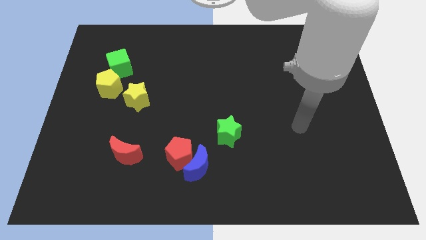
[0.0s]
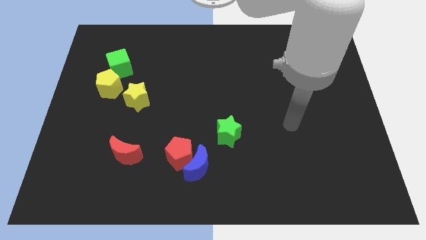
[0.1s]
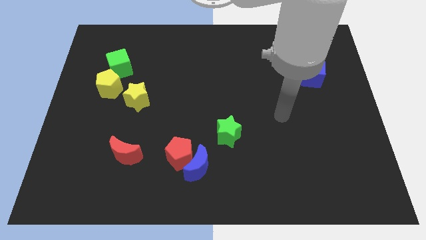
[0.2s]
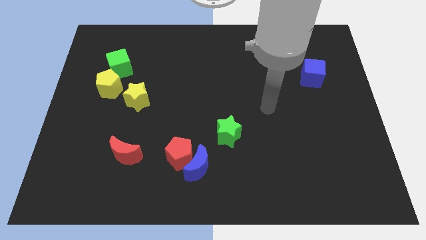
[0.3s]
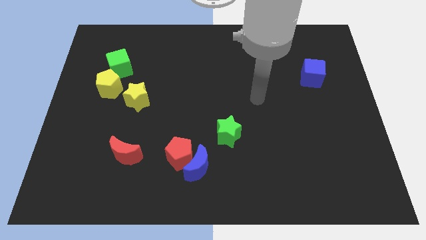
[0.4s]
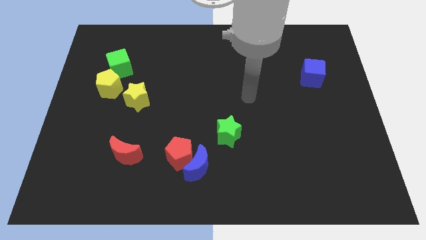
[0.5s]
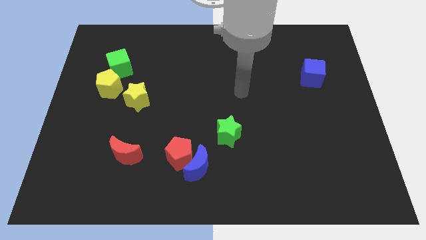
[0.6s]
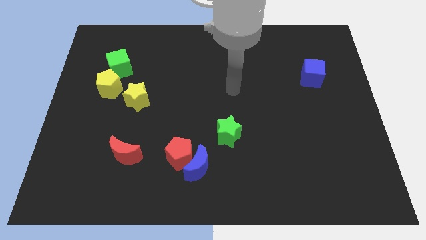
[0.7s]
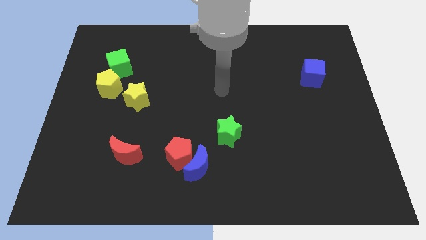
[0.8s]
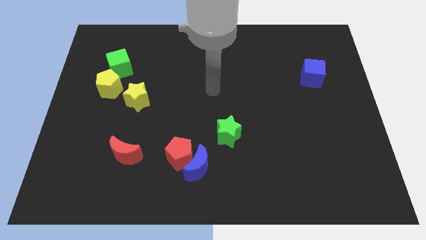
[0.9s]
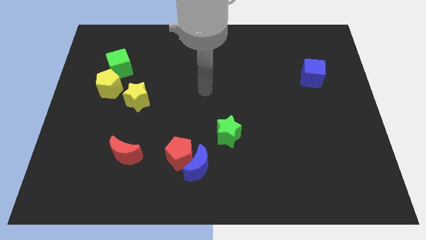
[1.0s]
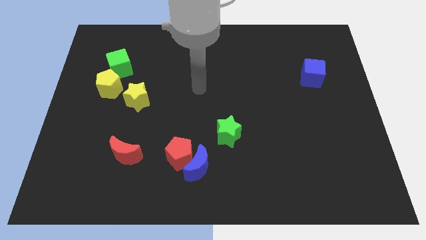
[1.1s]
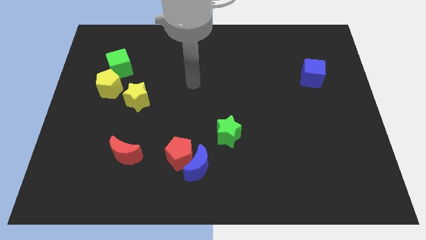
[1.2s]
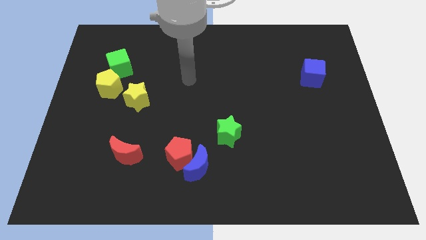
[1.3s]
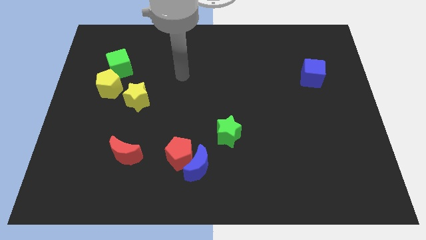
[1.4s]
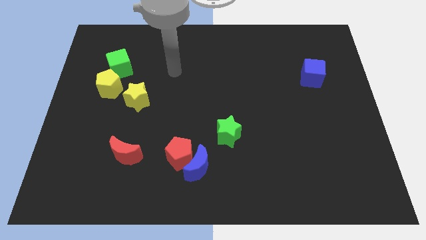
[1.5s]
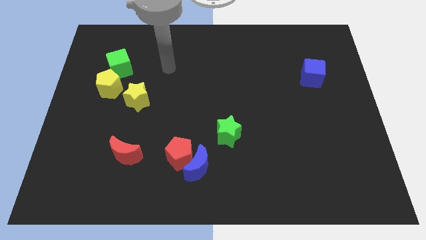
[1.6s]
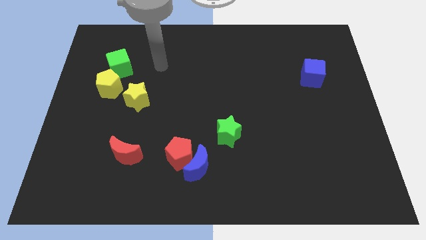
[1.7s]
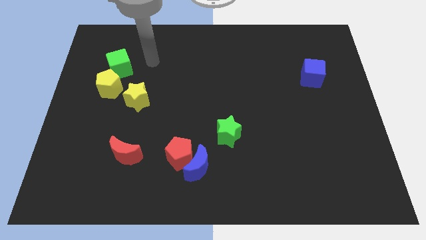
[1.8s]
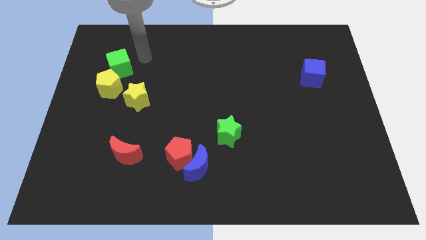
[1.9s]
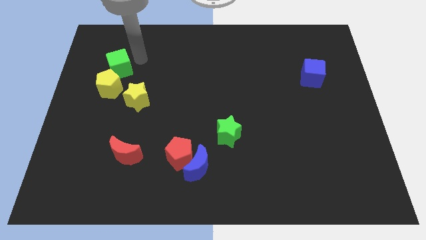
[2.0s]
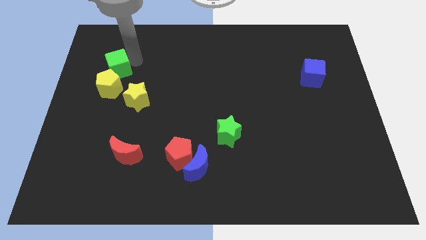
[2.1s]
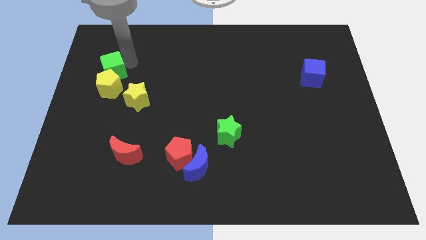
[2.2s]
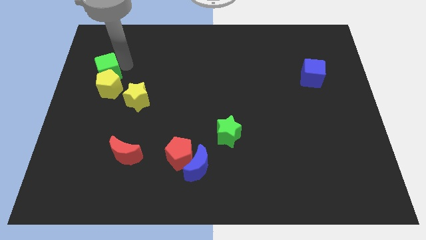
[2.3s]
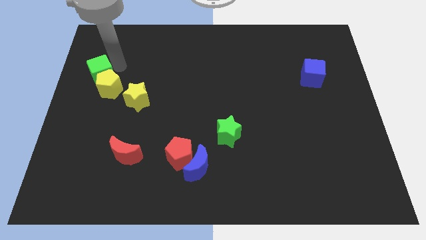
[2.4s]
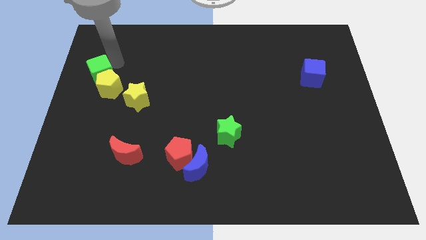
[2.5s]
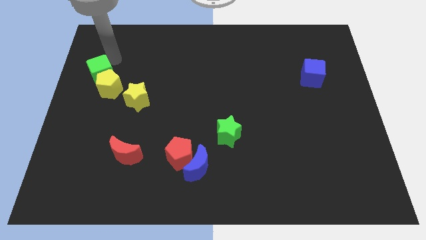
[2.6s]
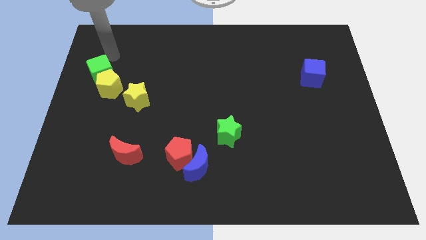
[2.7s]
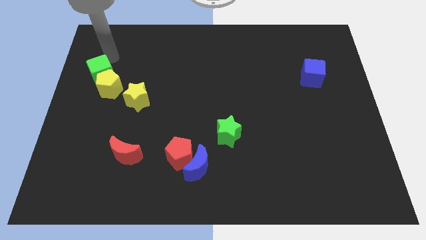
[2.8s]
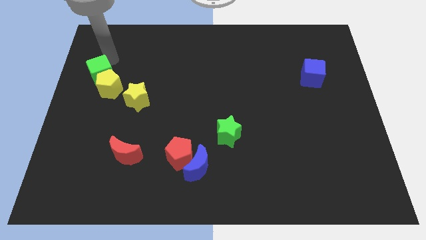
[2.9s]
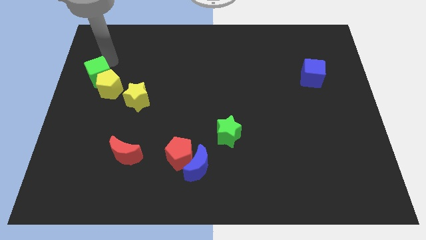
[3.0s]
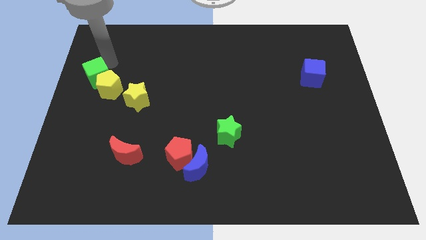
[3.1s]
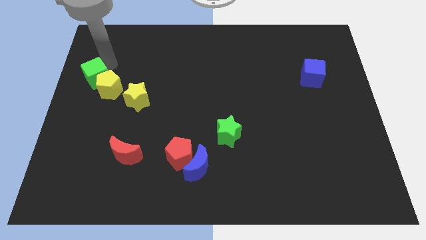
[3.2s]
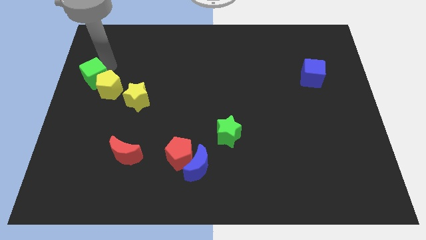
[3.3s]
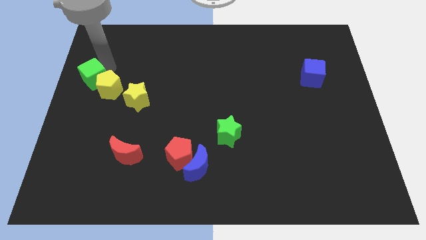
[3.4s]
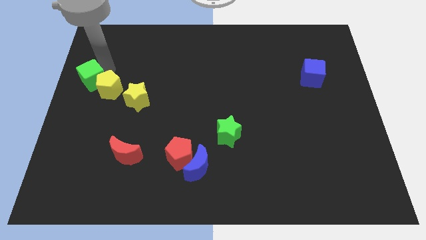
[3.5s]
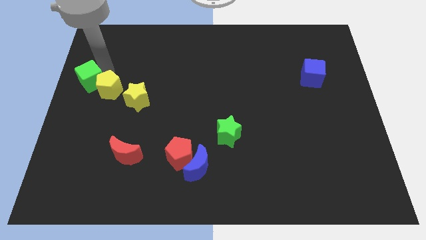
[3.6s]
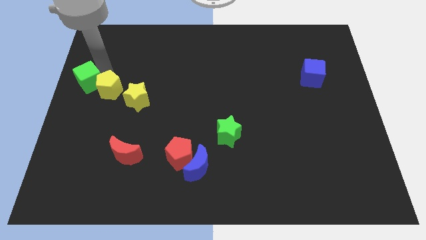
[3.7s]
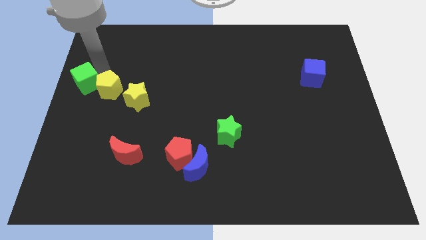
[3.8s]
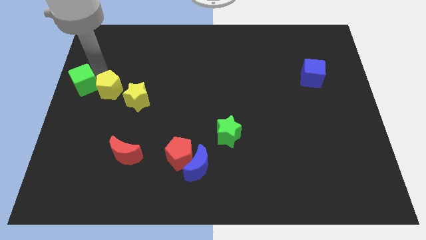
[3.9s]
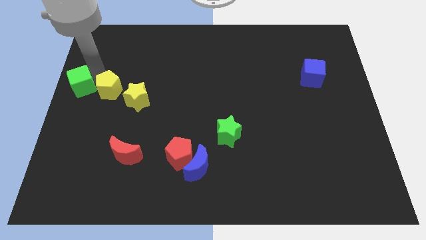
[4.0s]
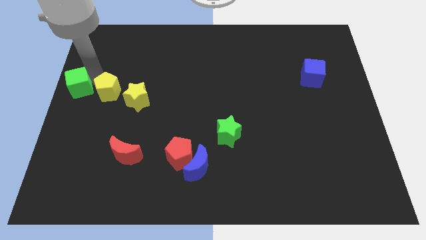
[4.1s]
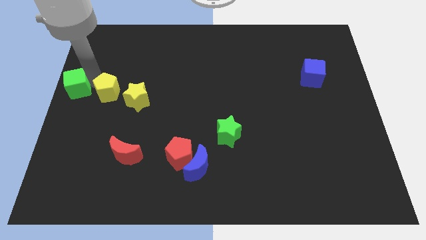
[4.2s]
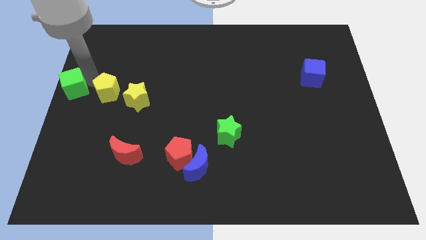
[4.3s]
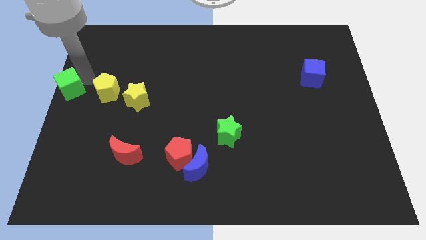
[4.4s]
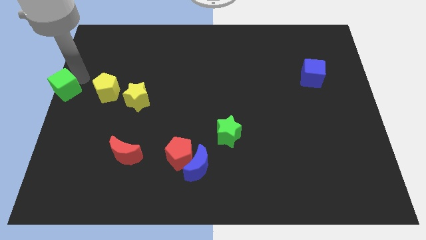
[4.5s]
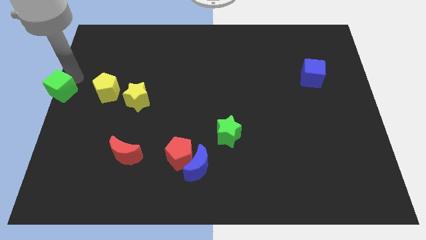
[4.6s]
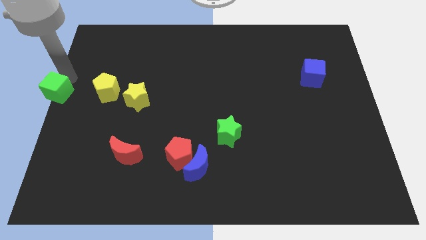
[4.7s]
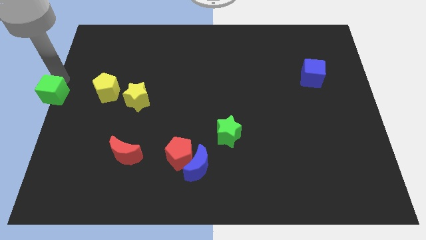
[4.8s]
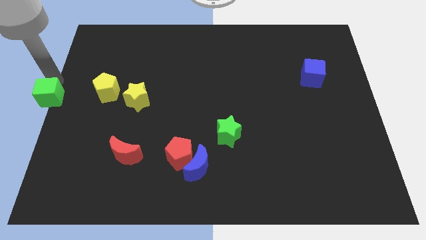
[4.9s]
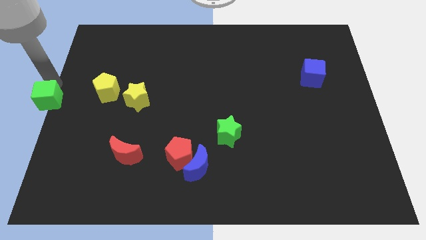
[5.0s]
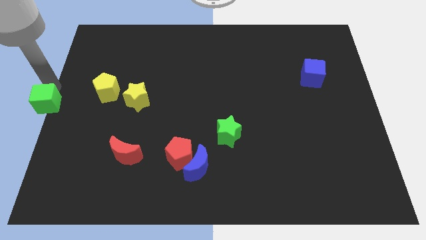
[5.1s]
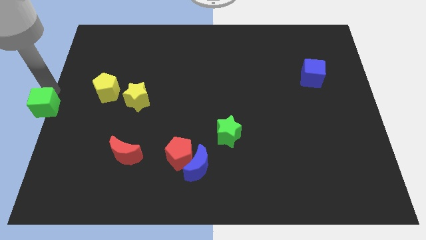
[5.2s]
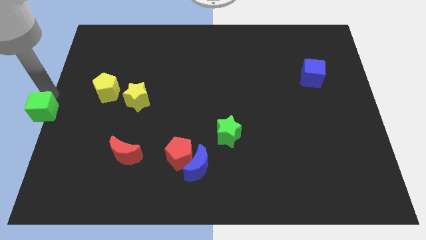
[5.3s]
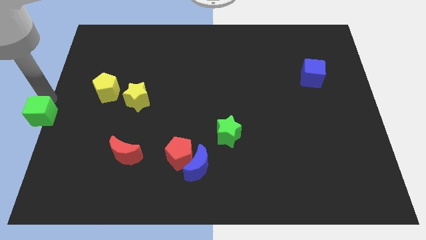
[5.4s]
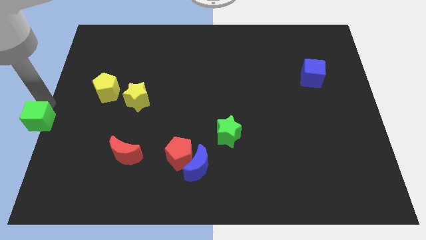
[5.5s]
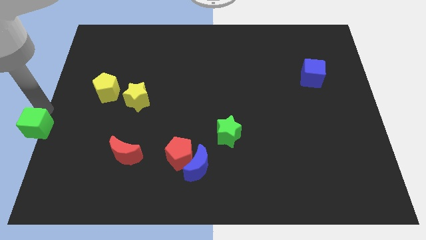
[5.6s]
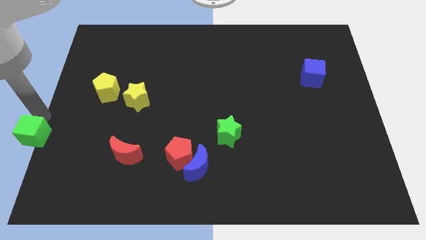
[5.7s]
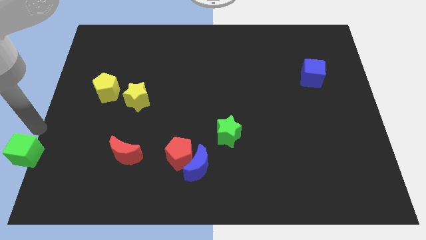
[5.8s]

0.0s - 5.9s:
slide the green cube to the bottom left

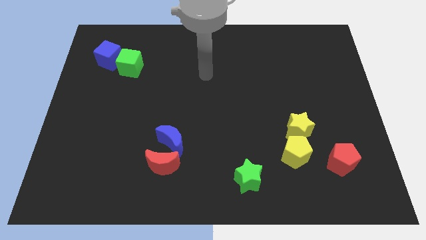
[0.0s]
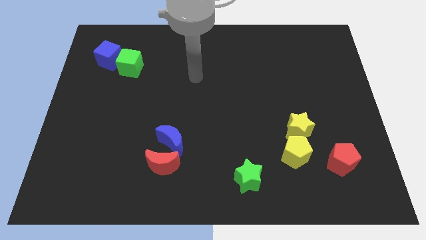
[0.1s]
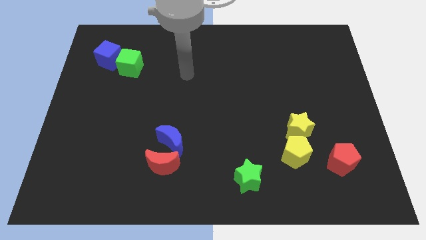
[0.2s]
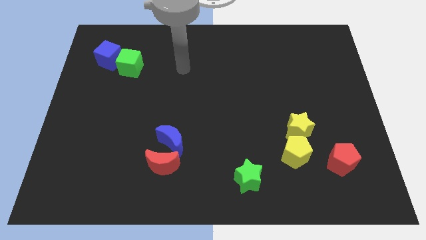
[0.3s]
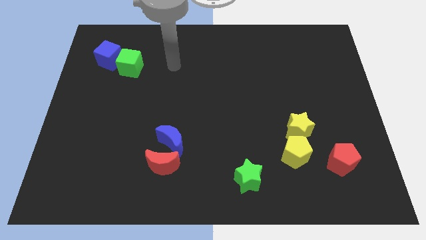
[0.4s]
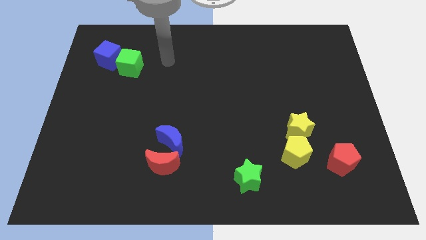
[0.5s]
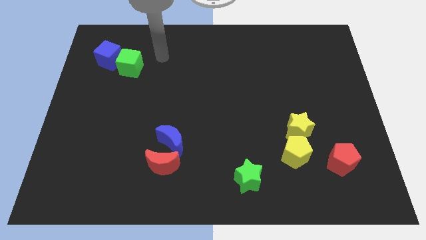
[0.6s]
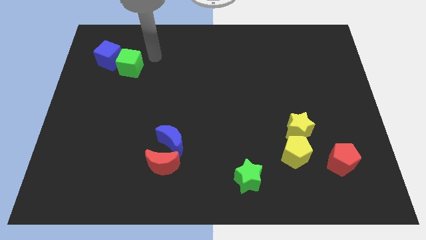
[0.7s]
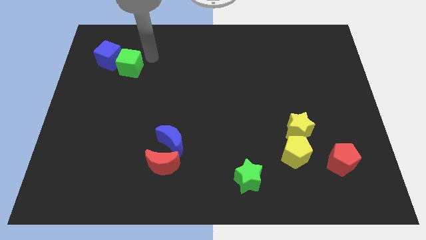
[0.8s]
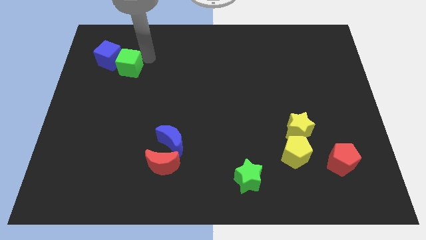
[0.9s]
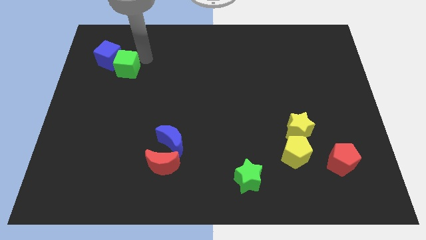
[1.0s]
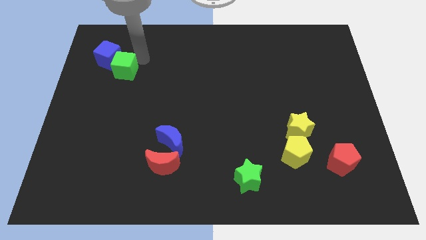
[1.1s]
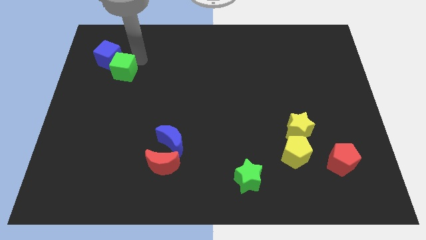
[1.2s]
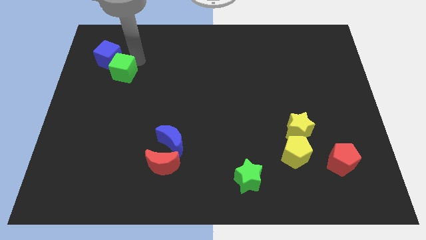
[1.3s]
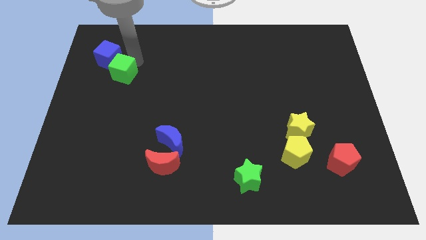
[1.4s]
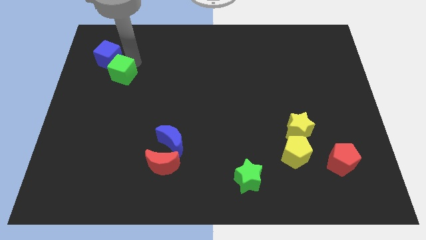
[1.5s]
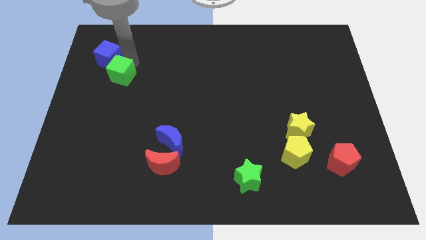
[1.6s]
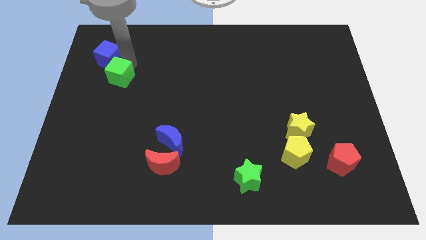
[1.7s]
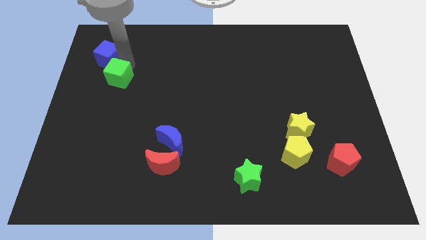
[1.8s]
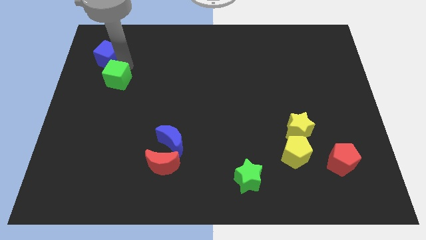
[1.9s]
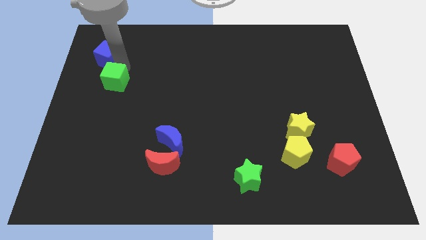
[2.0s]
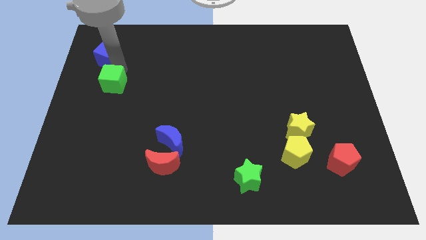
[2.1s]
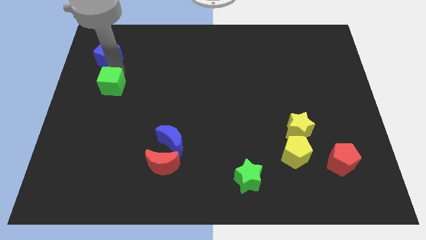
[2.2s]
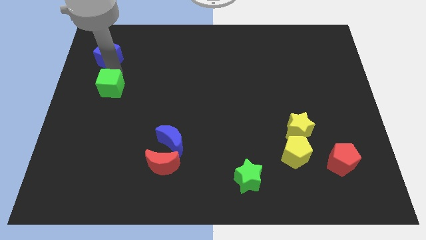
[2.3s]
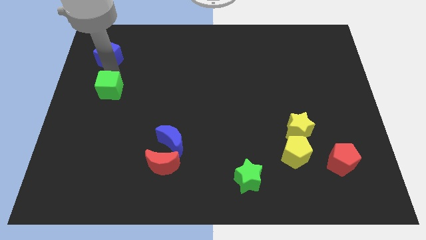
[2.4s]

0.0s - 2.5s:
move the green cube to the center left
